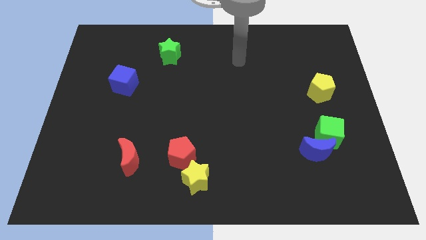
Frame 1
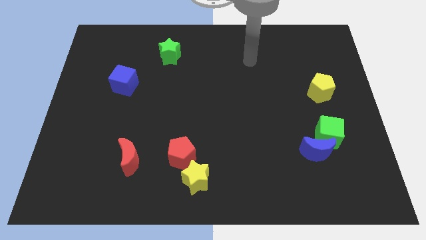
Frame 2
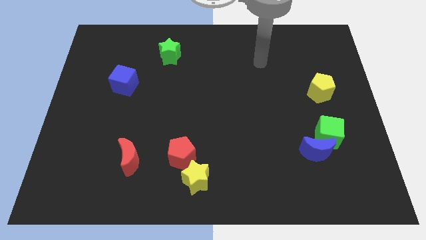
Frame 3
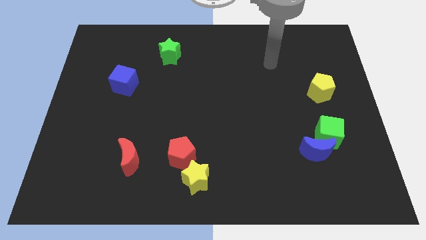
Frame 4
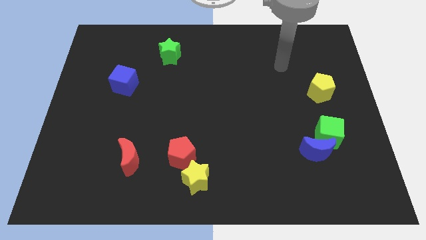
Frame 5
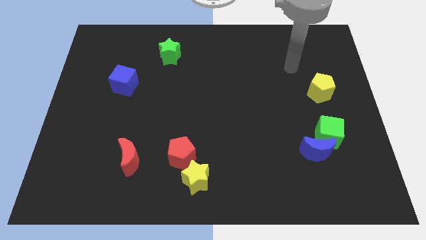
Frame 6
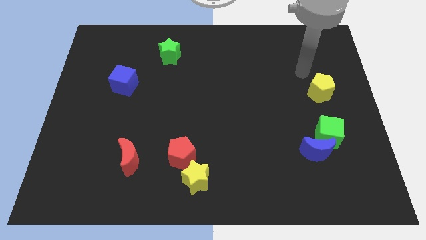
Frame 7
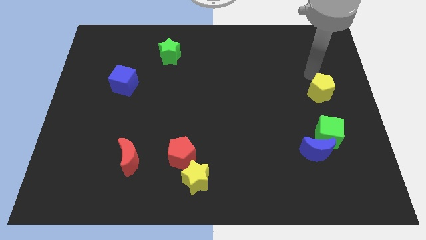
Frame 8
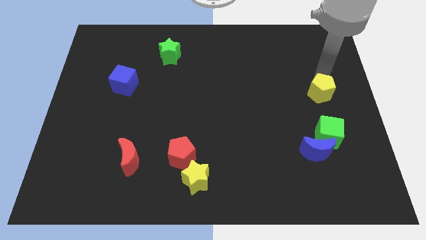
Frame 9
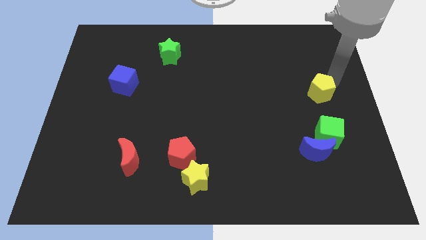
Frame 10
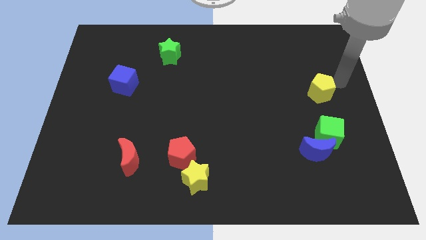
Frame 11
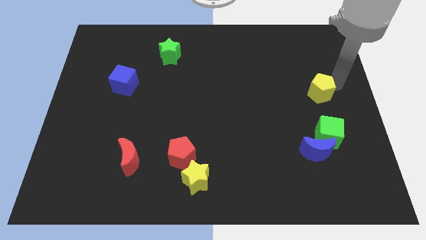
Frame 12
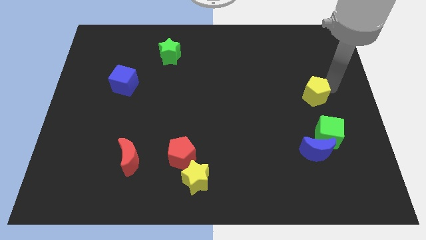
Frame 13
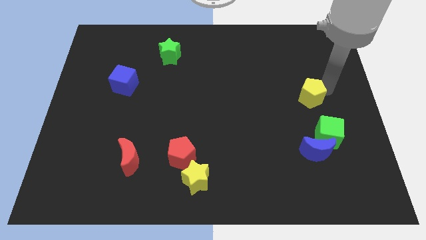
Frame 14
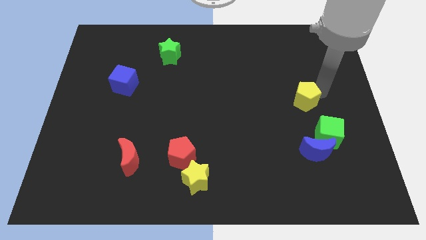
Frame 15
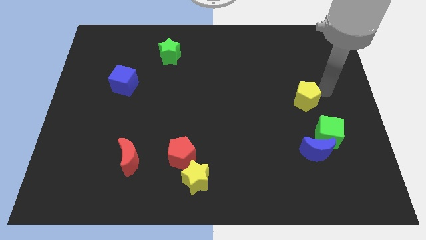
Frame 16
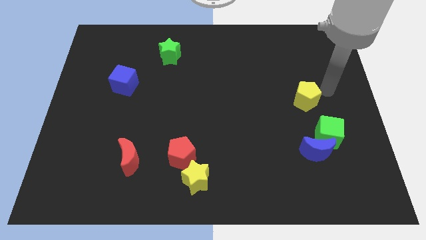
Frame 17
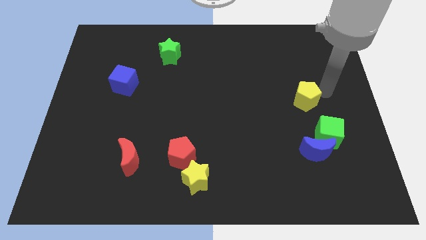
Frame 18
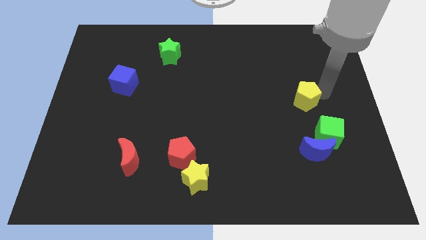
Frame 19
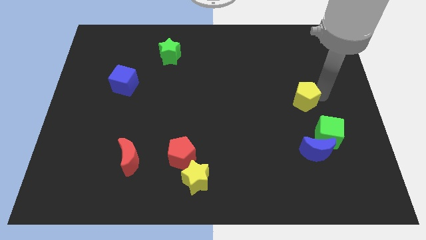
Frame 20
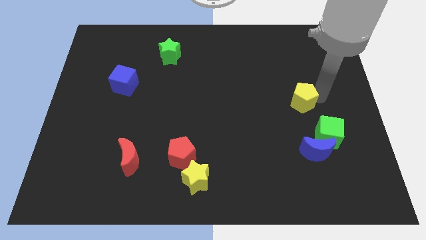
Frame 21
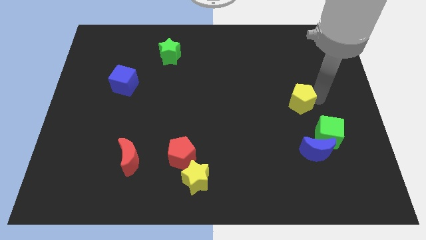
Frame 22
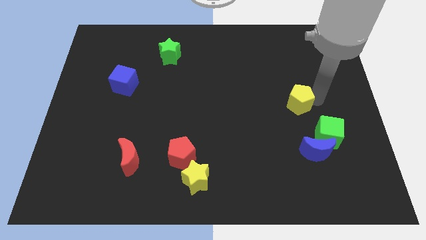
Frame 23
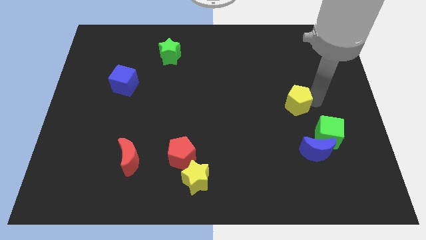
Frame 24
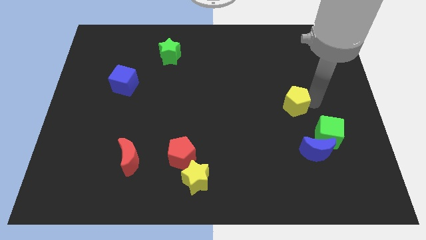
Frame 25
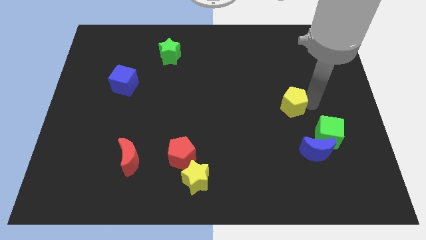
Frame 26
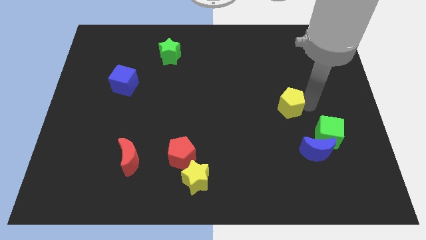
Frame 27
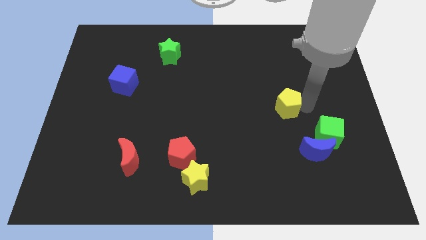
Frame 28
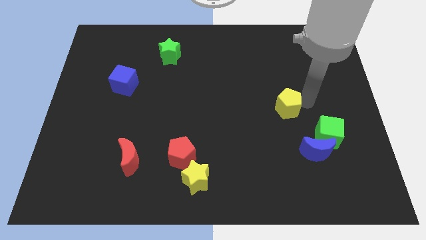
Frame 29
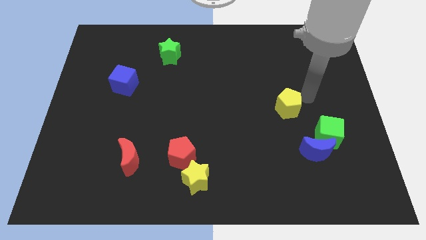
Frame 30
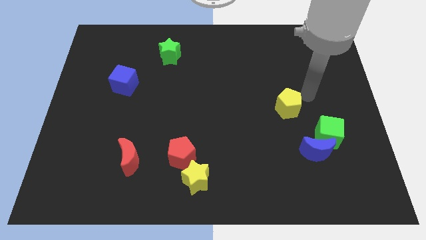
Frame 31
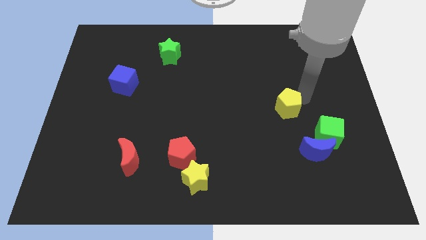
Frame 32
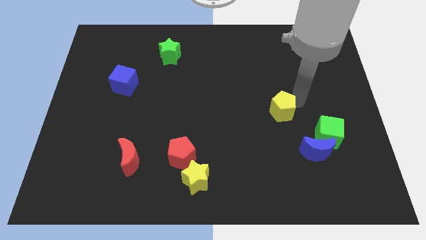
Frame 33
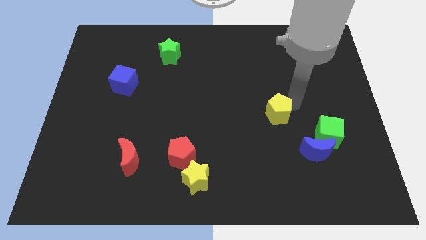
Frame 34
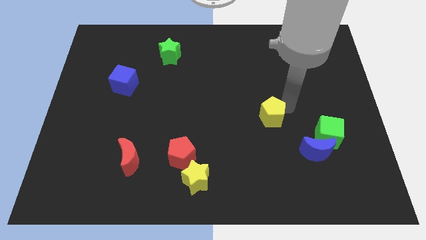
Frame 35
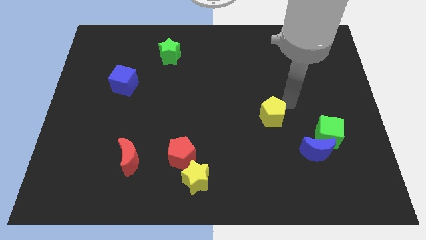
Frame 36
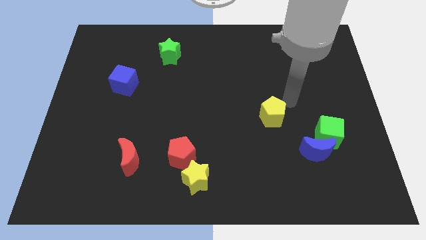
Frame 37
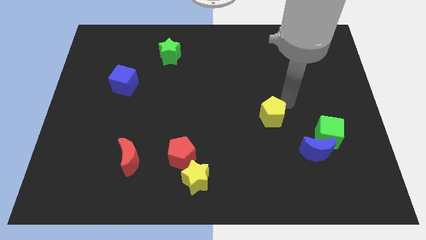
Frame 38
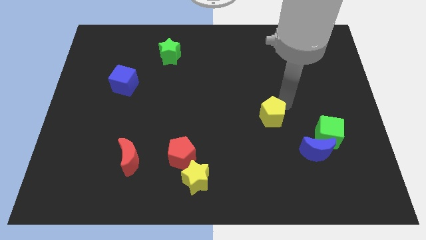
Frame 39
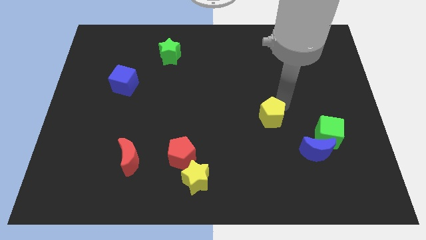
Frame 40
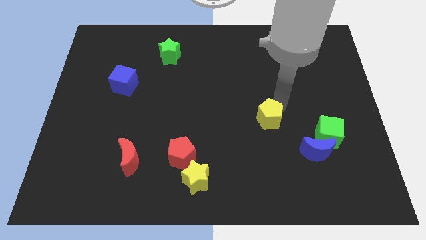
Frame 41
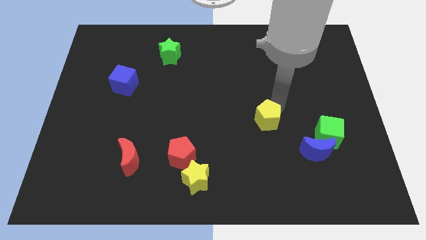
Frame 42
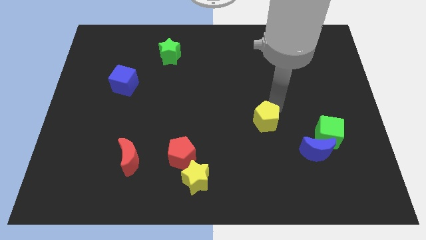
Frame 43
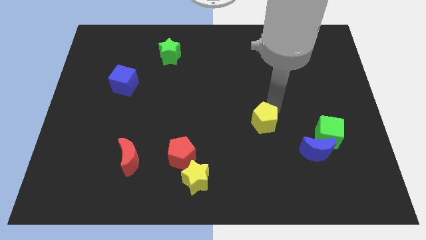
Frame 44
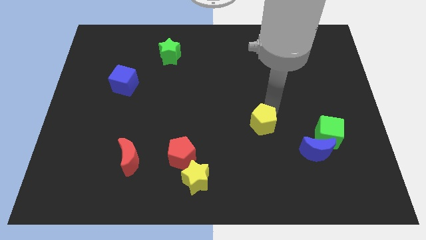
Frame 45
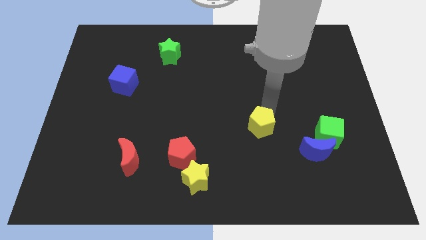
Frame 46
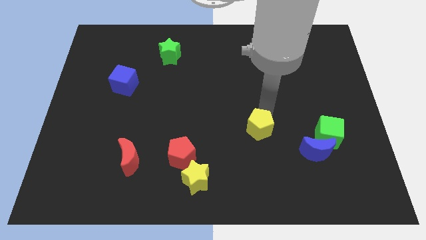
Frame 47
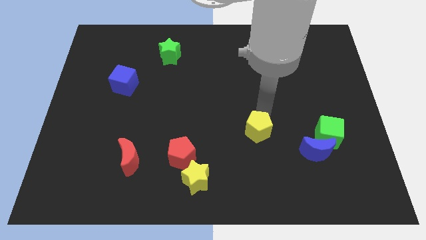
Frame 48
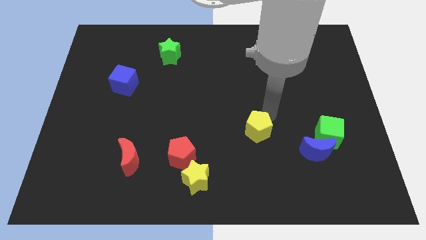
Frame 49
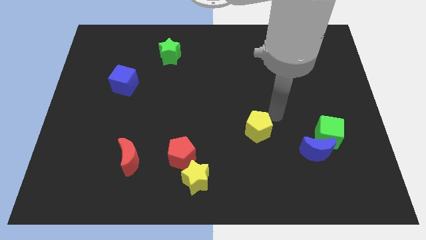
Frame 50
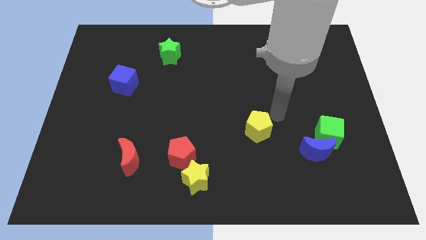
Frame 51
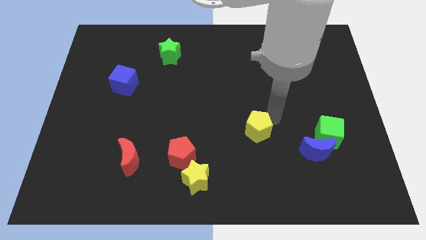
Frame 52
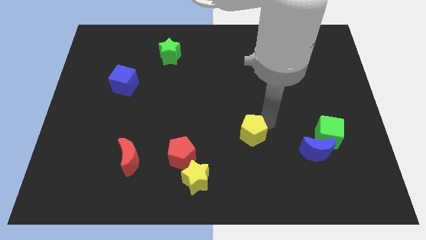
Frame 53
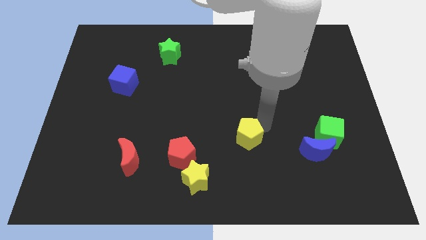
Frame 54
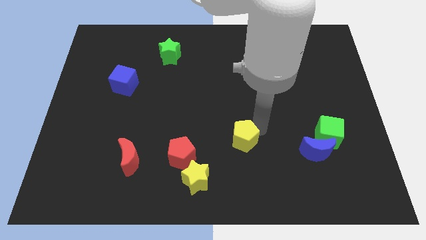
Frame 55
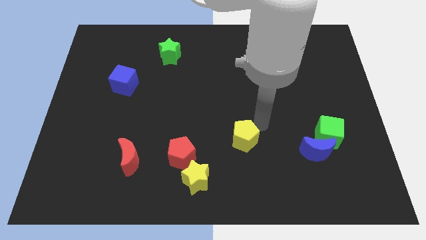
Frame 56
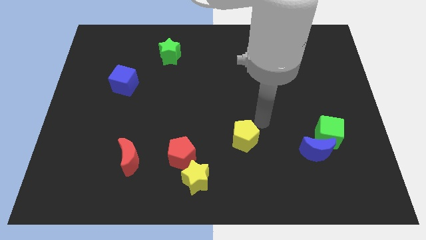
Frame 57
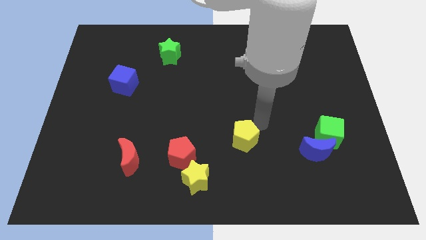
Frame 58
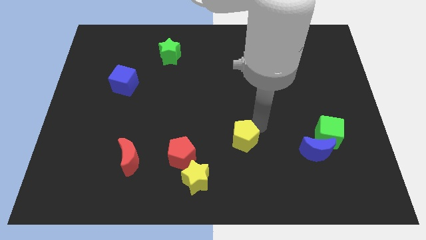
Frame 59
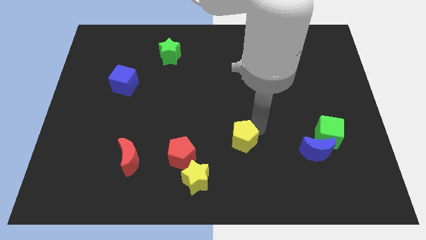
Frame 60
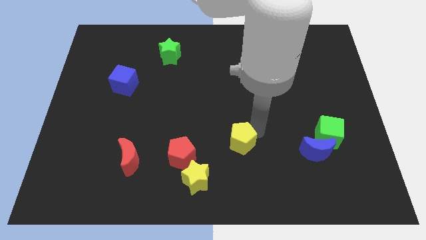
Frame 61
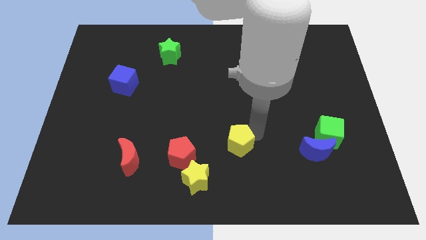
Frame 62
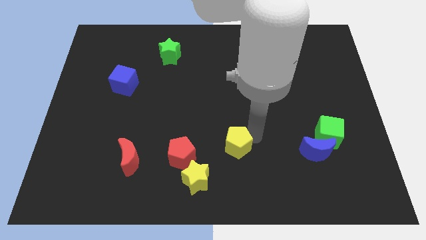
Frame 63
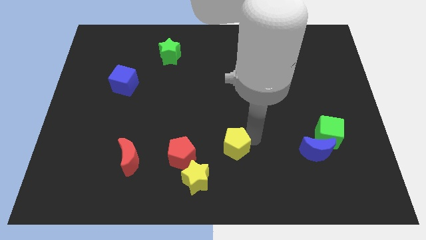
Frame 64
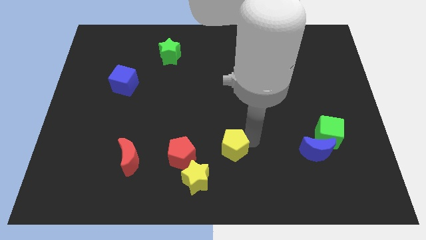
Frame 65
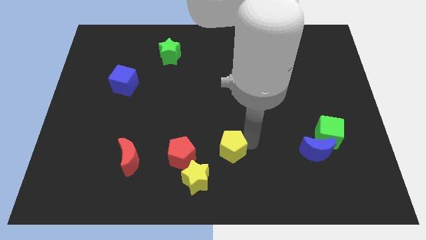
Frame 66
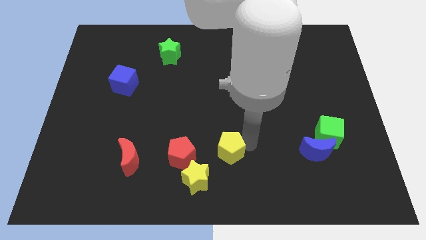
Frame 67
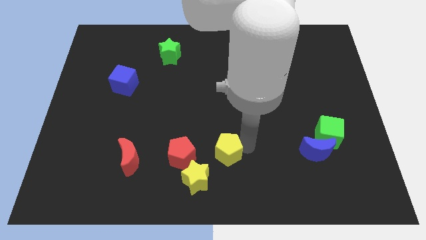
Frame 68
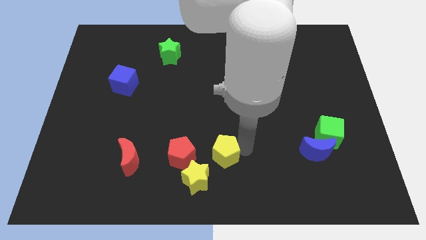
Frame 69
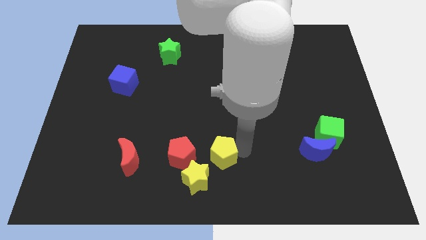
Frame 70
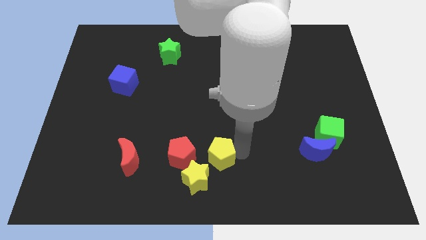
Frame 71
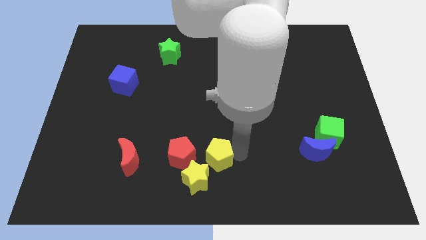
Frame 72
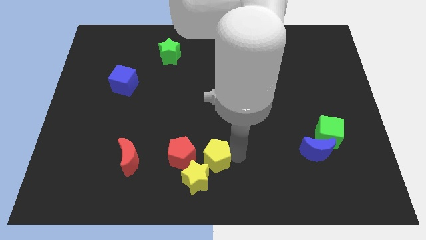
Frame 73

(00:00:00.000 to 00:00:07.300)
push the yellow pentagon close to the yellow star

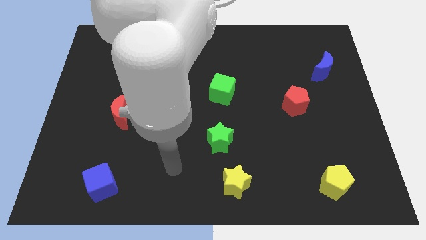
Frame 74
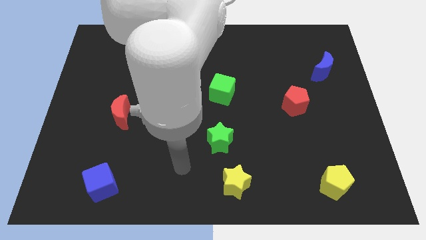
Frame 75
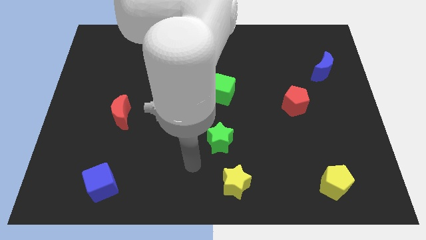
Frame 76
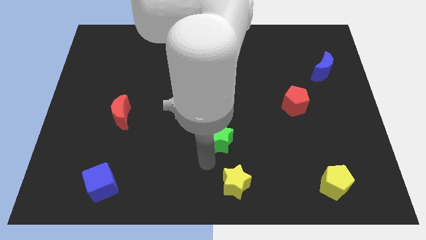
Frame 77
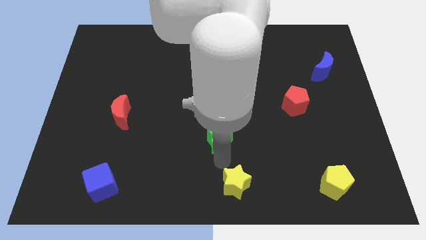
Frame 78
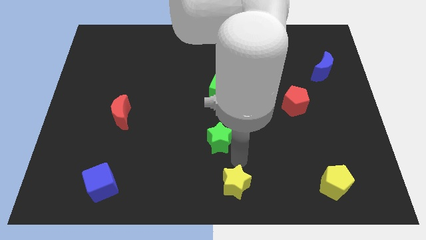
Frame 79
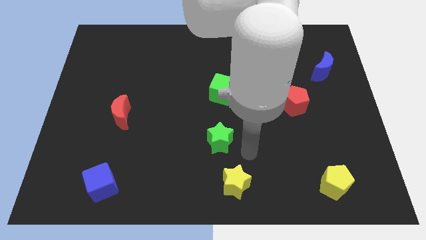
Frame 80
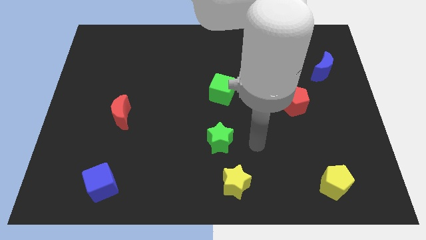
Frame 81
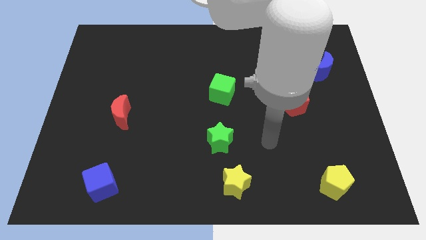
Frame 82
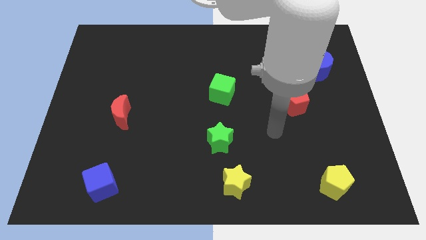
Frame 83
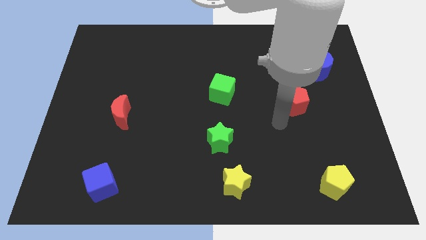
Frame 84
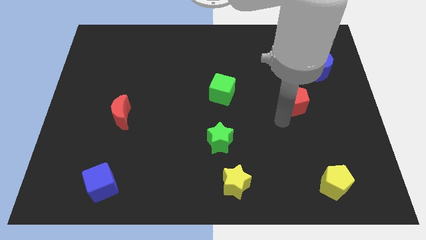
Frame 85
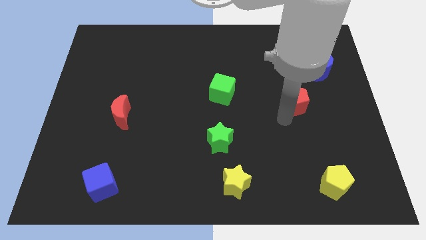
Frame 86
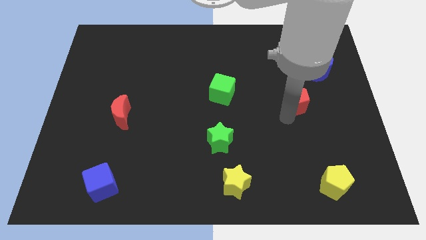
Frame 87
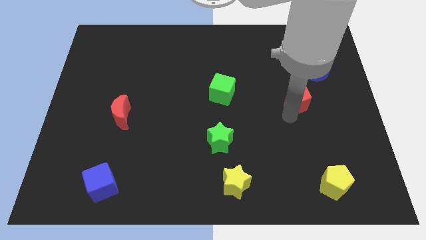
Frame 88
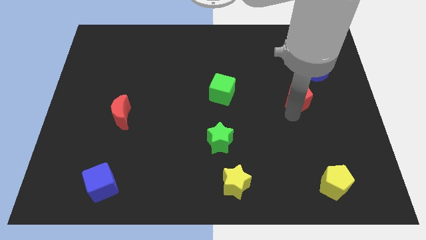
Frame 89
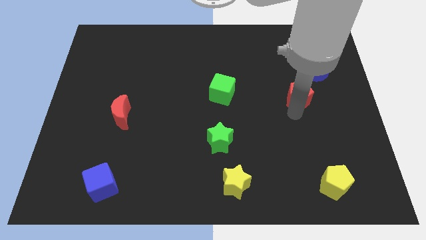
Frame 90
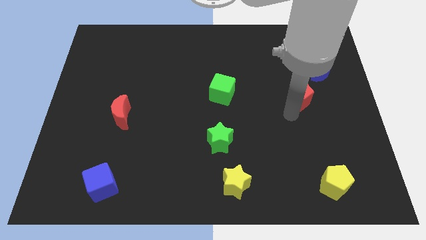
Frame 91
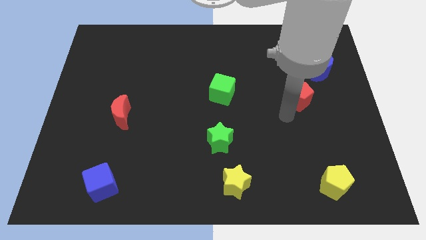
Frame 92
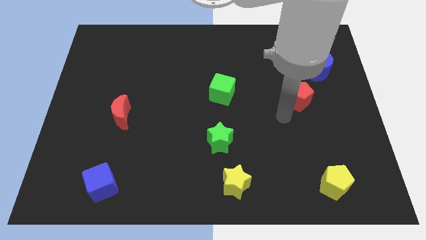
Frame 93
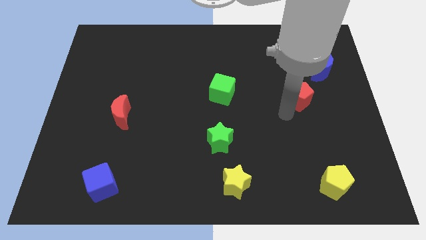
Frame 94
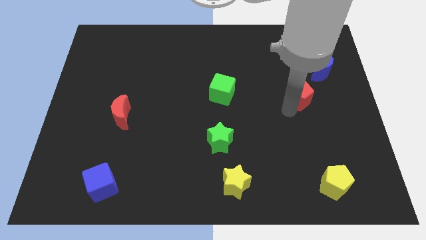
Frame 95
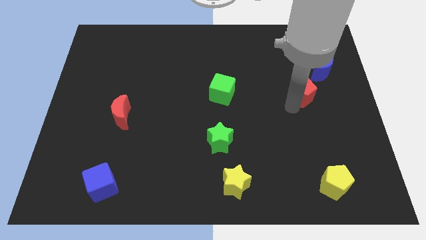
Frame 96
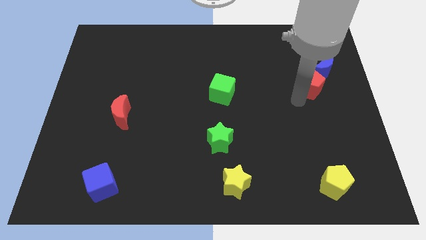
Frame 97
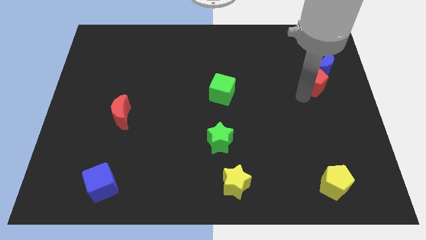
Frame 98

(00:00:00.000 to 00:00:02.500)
put the red pentagon next to the blue moon
